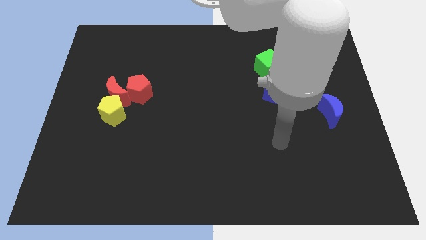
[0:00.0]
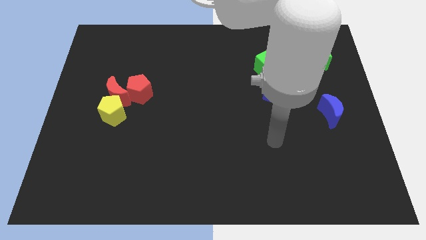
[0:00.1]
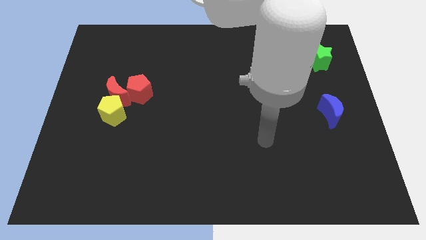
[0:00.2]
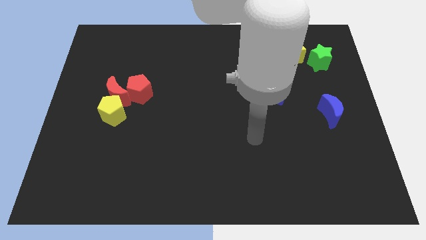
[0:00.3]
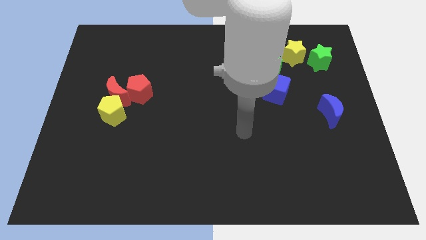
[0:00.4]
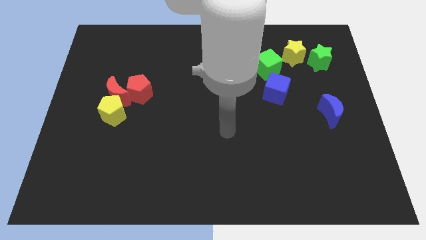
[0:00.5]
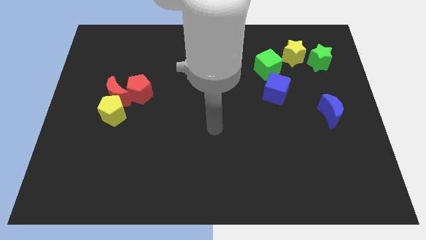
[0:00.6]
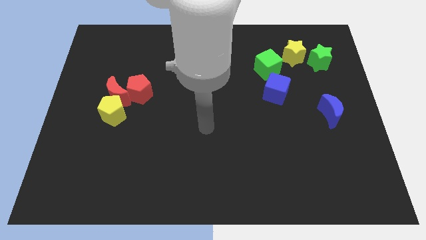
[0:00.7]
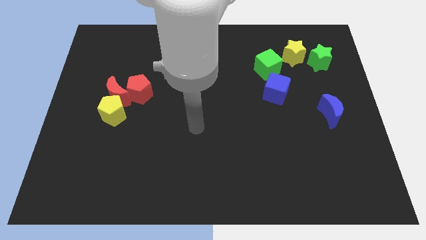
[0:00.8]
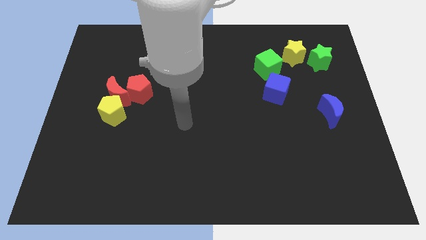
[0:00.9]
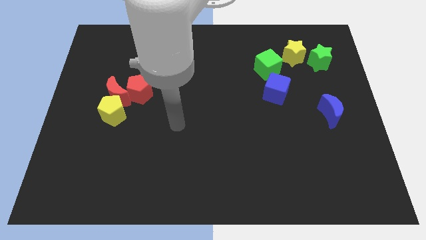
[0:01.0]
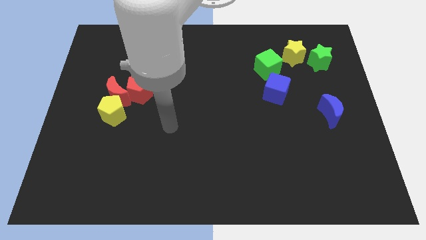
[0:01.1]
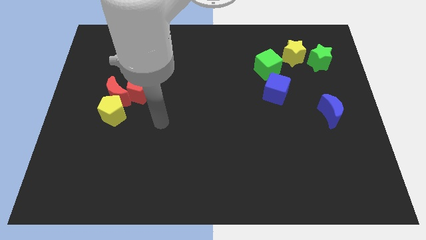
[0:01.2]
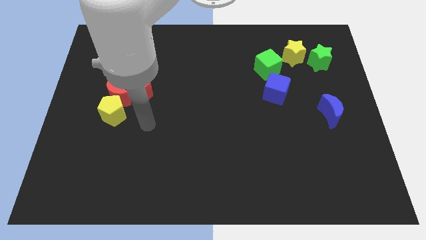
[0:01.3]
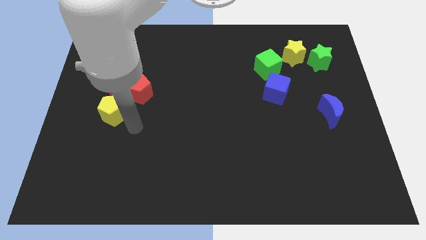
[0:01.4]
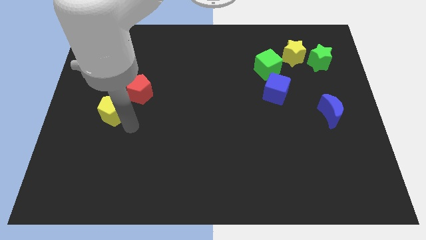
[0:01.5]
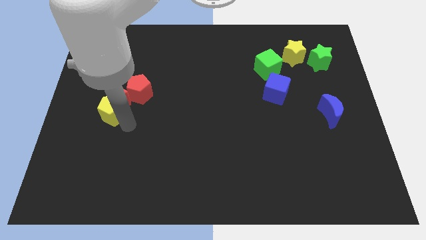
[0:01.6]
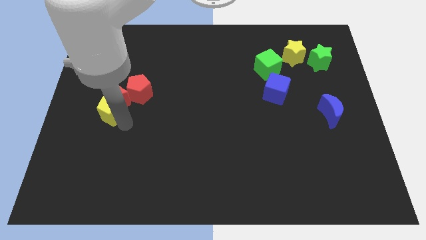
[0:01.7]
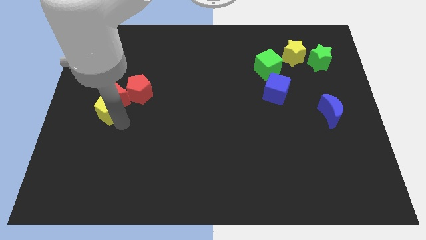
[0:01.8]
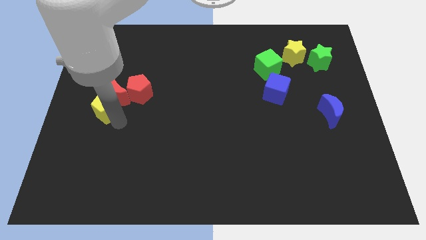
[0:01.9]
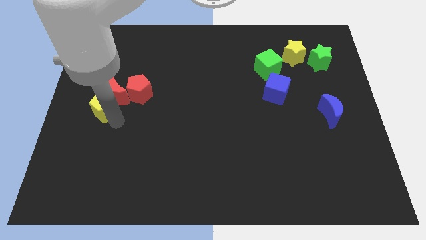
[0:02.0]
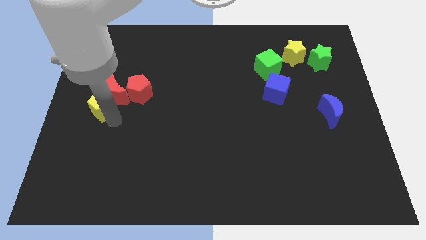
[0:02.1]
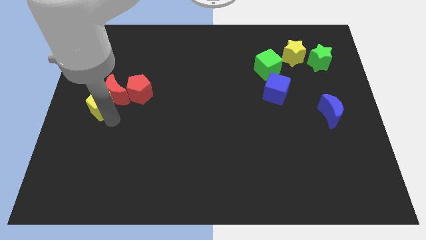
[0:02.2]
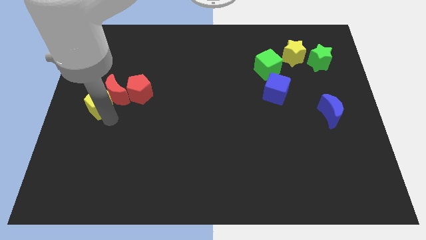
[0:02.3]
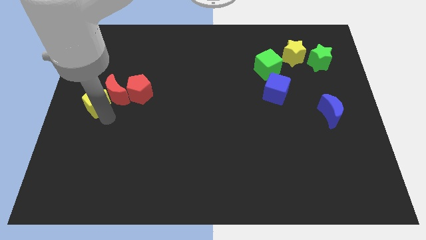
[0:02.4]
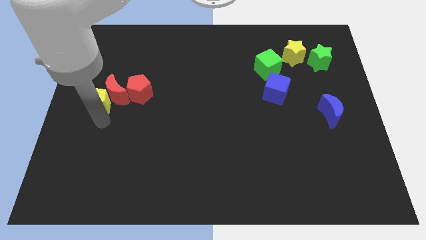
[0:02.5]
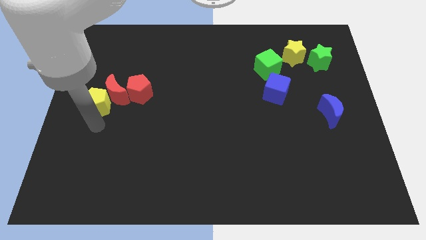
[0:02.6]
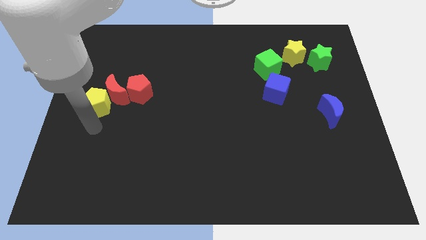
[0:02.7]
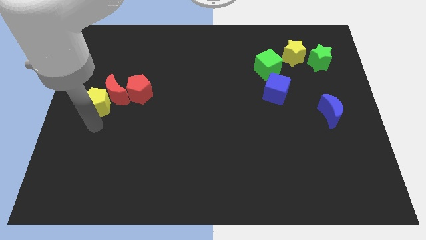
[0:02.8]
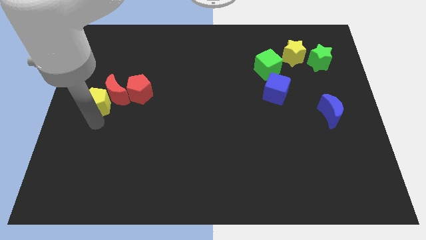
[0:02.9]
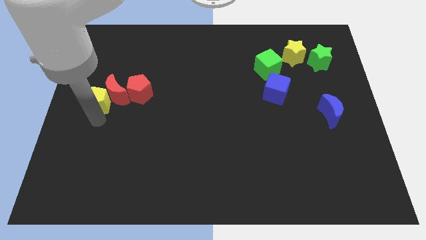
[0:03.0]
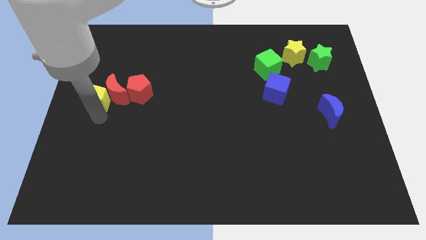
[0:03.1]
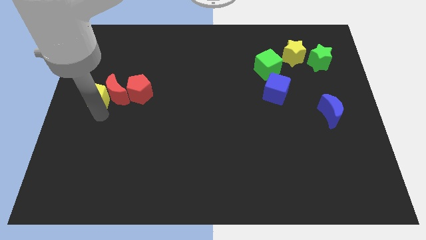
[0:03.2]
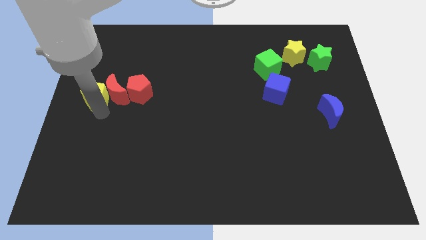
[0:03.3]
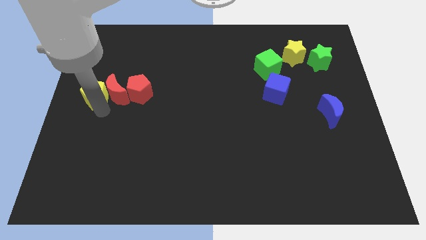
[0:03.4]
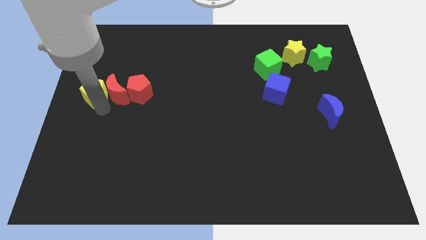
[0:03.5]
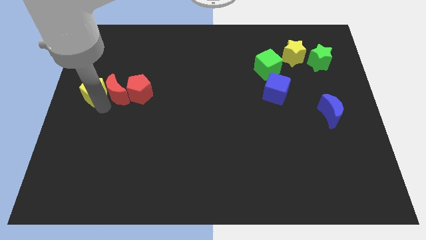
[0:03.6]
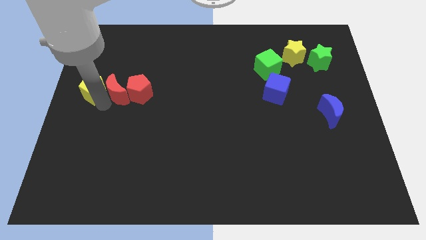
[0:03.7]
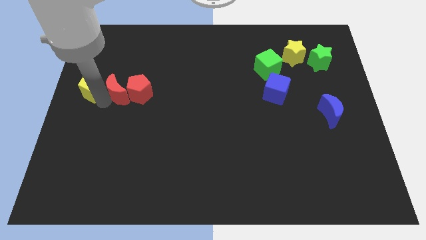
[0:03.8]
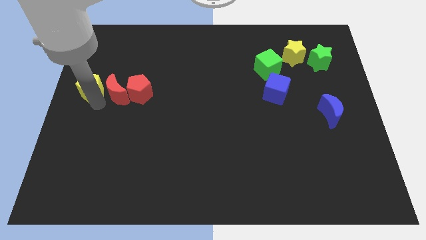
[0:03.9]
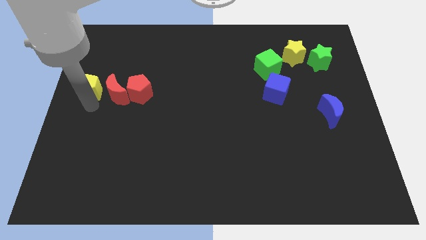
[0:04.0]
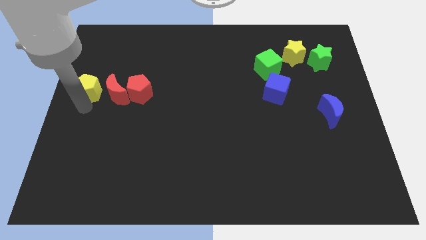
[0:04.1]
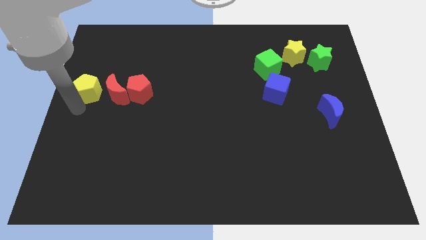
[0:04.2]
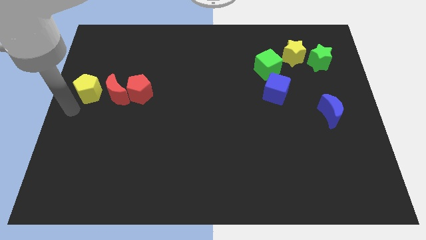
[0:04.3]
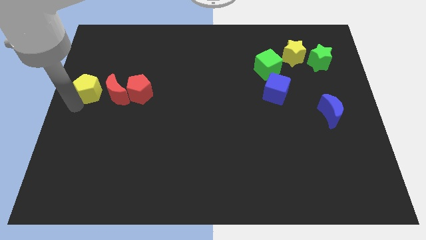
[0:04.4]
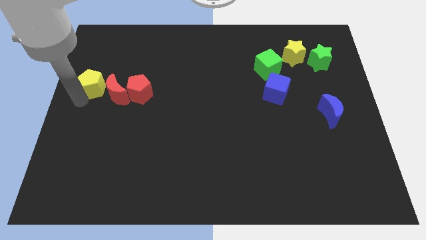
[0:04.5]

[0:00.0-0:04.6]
push the yellow pentagon up a bit

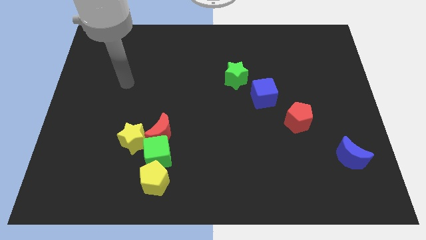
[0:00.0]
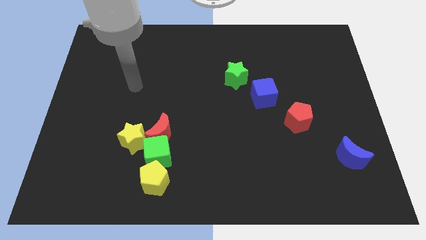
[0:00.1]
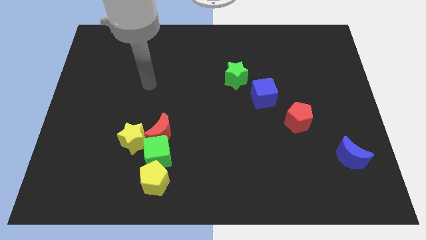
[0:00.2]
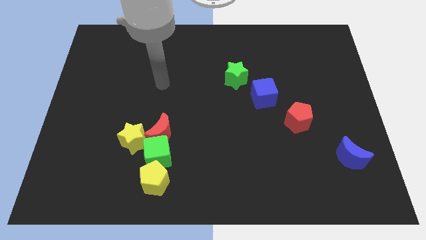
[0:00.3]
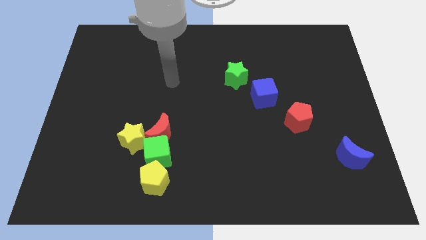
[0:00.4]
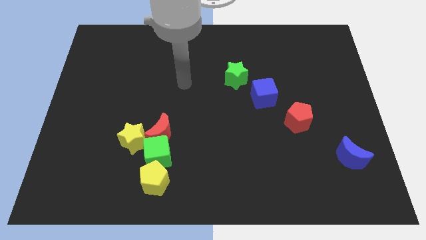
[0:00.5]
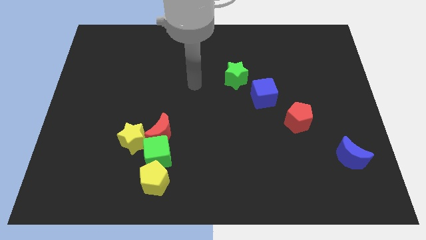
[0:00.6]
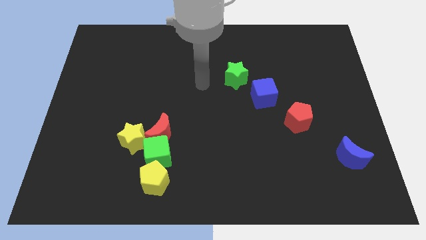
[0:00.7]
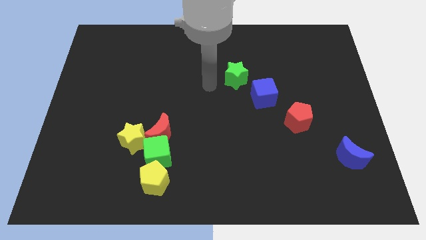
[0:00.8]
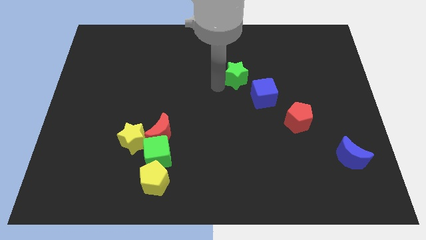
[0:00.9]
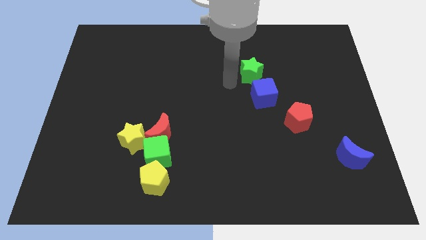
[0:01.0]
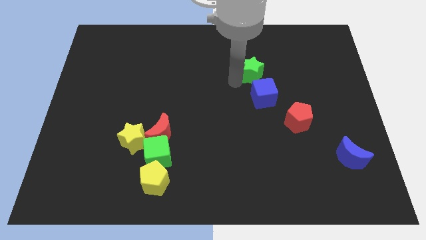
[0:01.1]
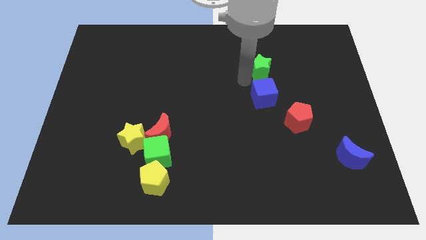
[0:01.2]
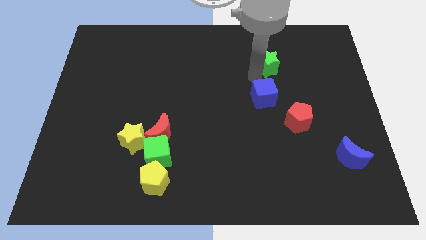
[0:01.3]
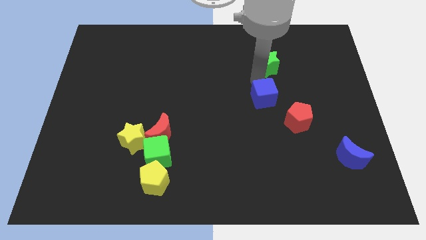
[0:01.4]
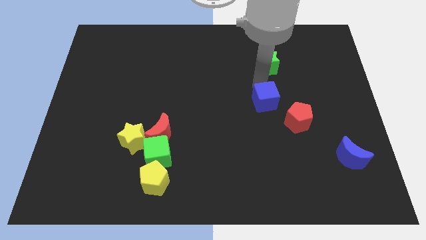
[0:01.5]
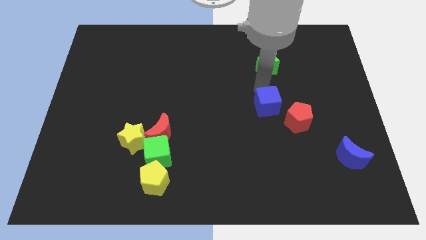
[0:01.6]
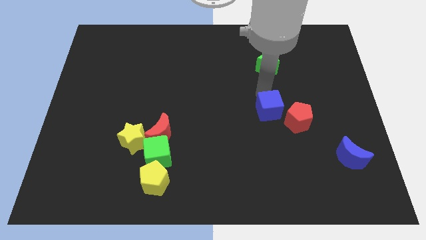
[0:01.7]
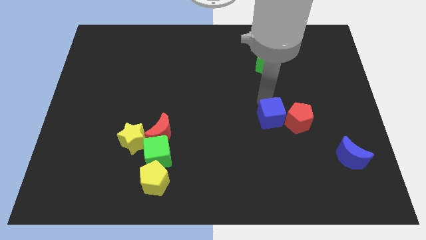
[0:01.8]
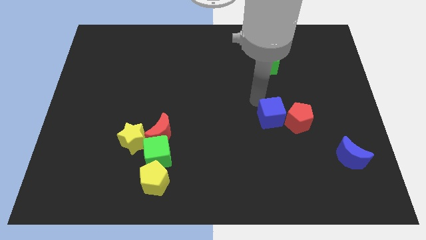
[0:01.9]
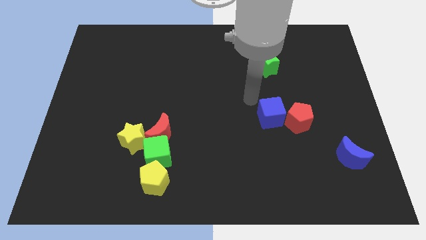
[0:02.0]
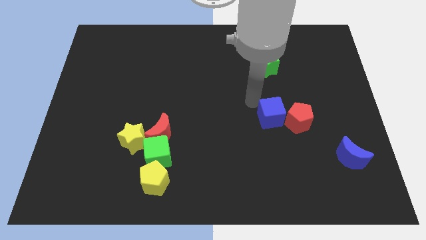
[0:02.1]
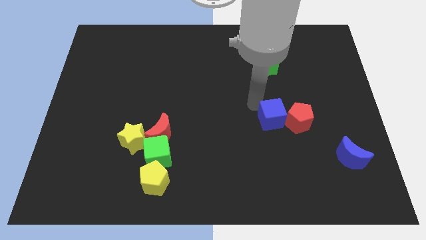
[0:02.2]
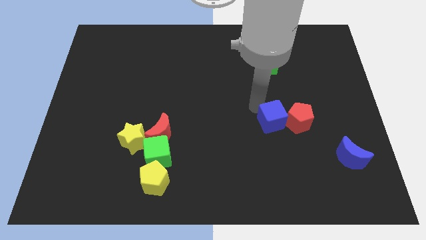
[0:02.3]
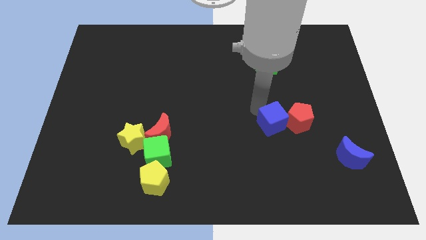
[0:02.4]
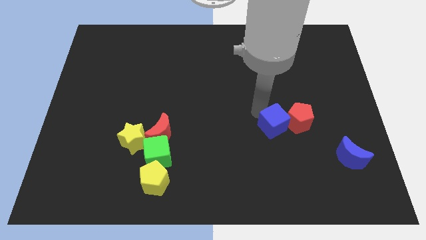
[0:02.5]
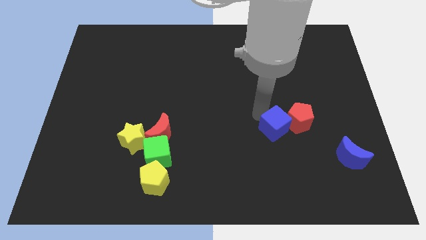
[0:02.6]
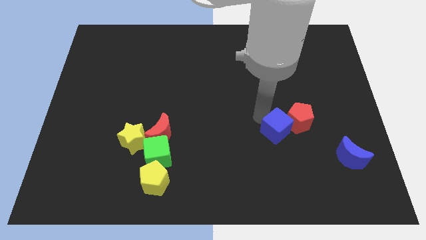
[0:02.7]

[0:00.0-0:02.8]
move the blue cube down and then right slightly

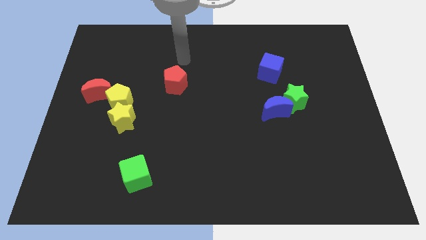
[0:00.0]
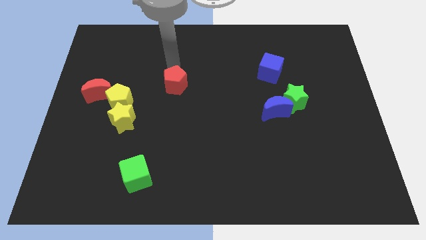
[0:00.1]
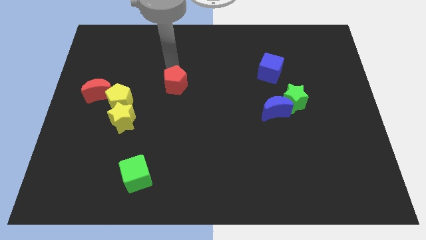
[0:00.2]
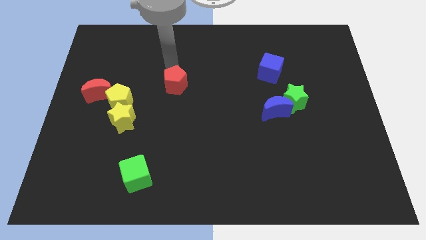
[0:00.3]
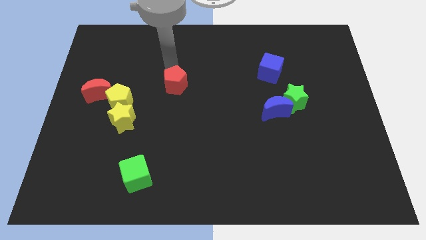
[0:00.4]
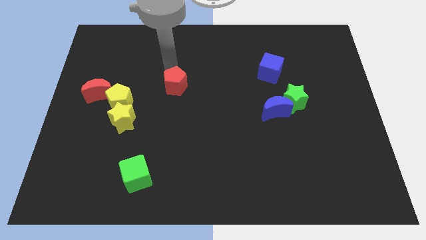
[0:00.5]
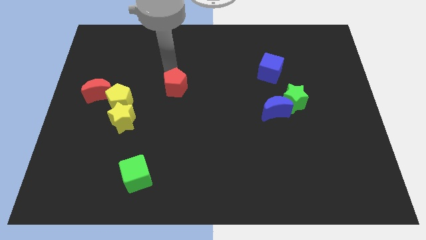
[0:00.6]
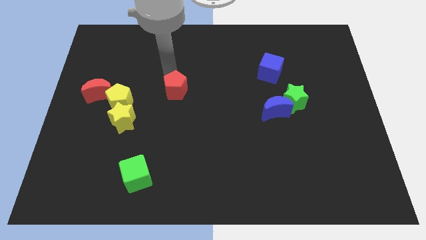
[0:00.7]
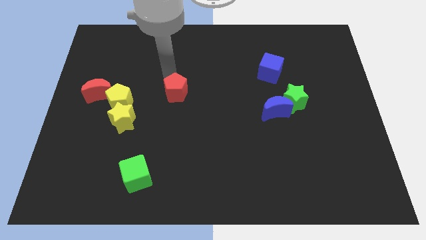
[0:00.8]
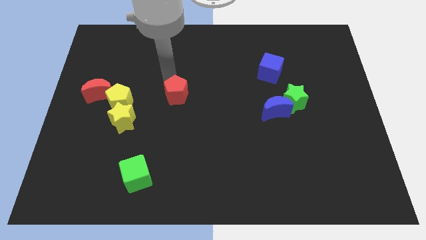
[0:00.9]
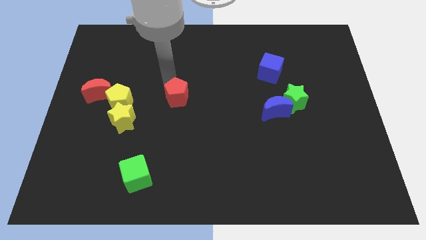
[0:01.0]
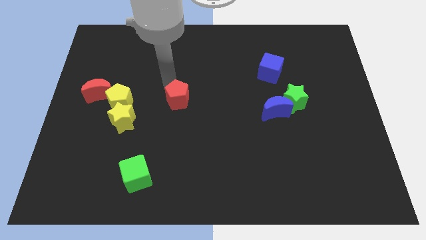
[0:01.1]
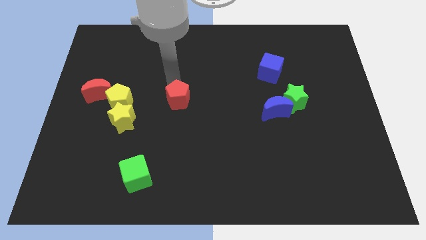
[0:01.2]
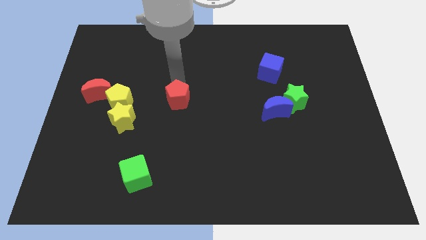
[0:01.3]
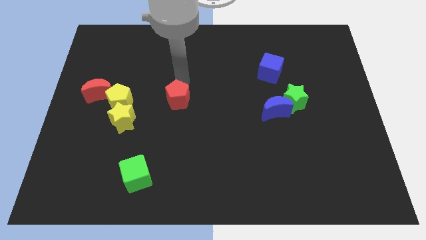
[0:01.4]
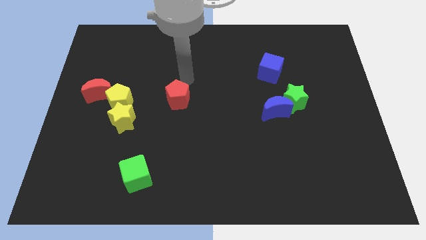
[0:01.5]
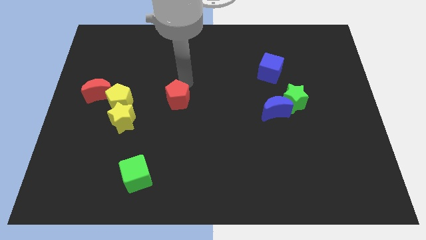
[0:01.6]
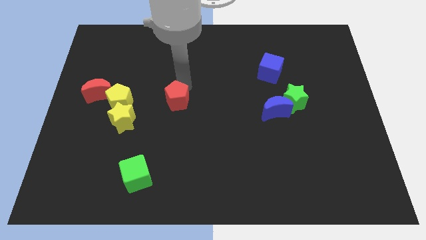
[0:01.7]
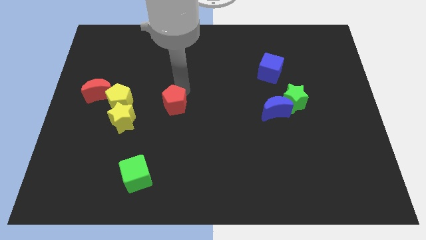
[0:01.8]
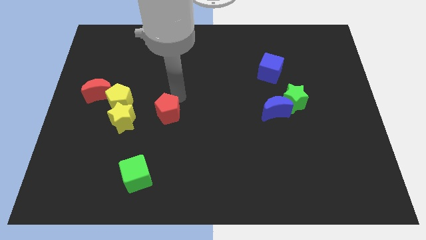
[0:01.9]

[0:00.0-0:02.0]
push the red pentagon down a little bit
